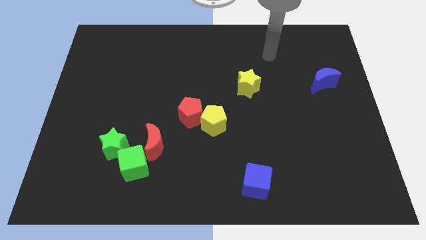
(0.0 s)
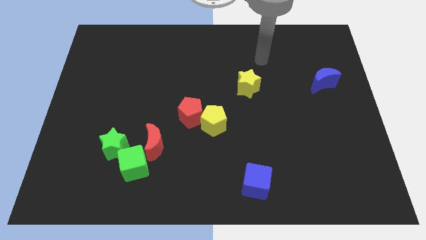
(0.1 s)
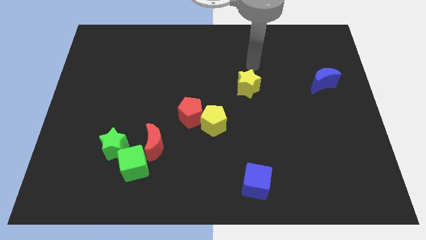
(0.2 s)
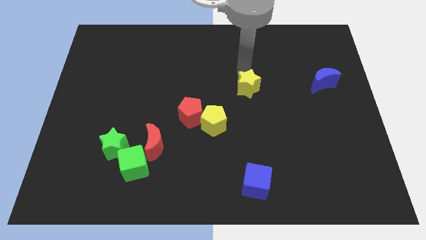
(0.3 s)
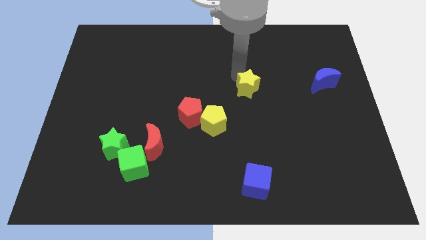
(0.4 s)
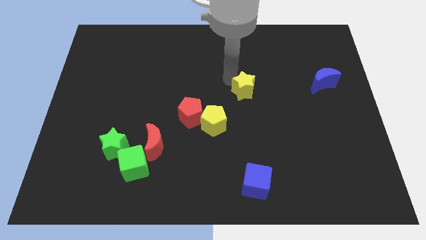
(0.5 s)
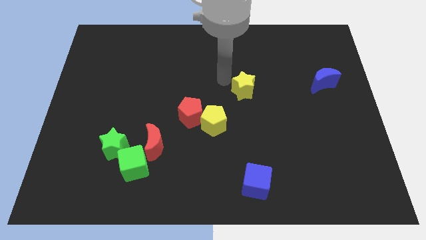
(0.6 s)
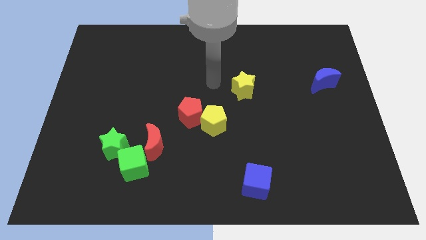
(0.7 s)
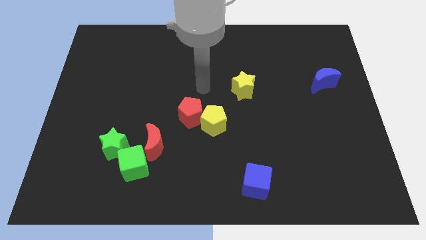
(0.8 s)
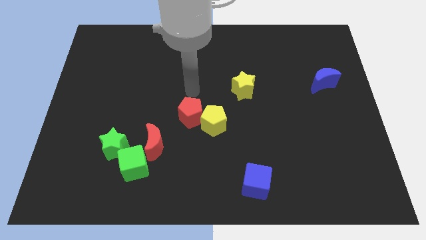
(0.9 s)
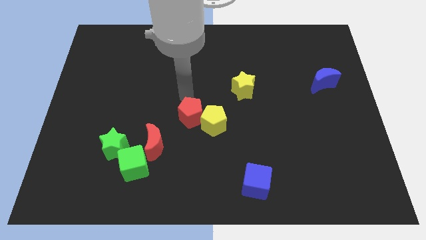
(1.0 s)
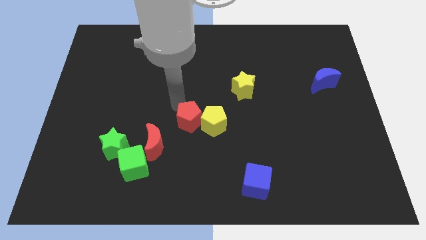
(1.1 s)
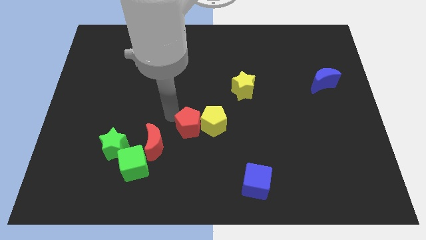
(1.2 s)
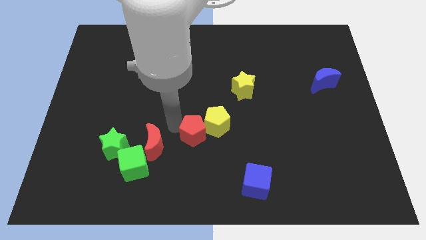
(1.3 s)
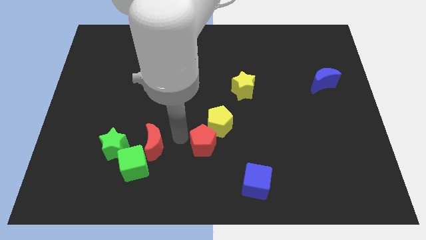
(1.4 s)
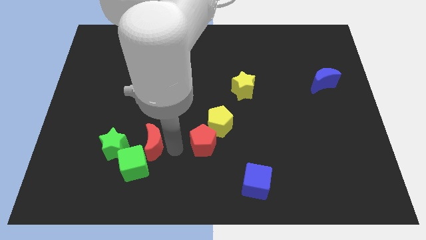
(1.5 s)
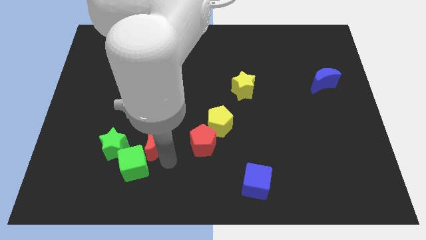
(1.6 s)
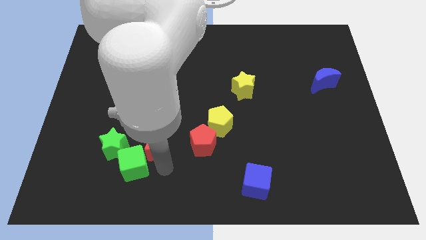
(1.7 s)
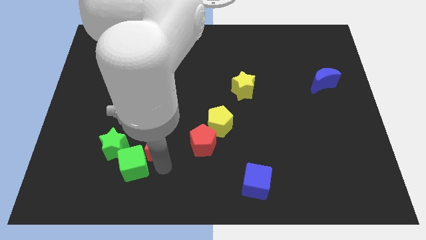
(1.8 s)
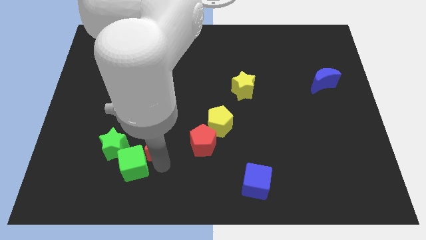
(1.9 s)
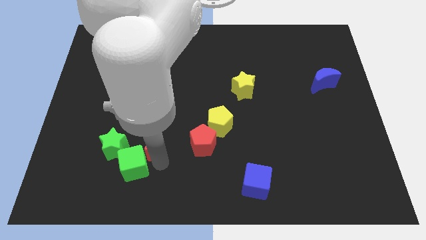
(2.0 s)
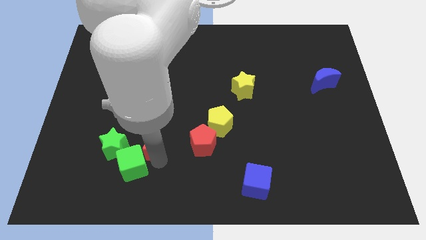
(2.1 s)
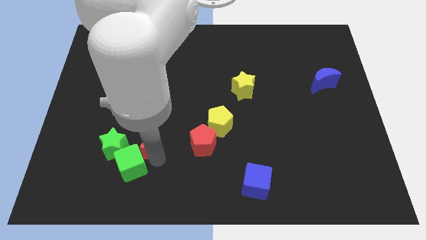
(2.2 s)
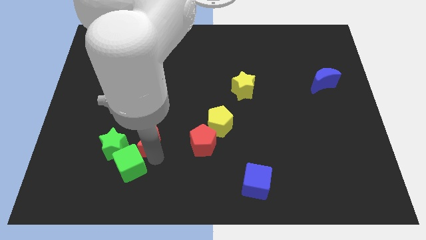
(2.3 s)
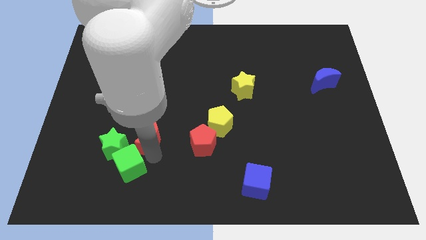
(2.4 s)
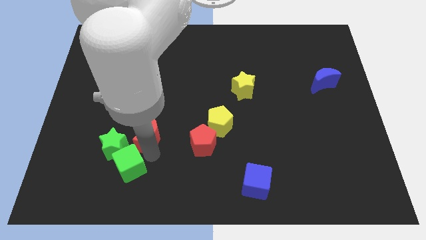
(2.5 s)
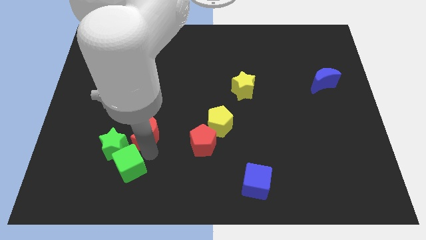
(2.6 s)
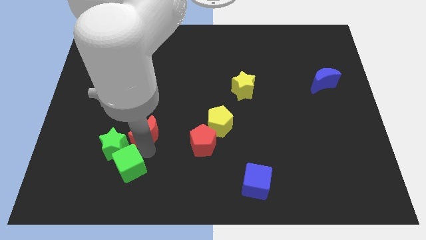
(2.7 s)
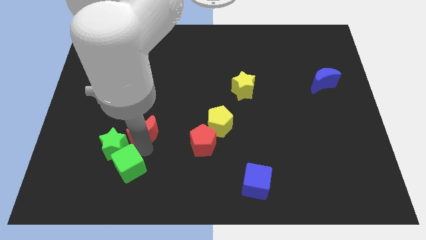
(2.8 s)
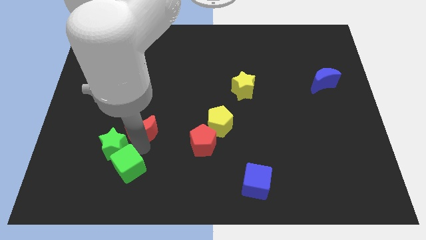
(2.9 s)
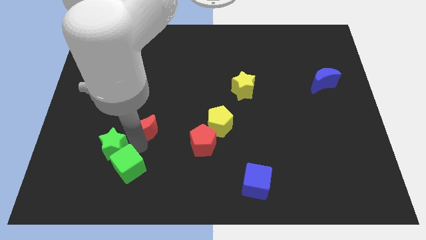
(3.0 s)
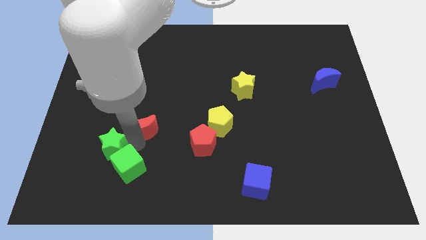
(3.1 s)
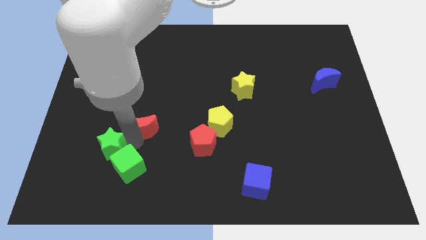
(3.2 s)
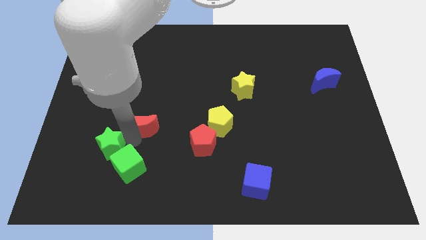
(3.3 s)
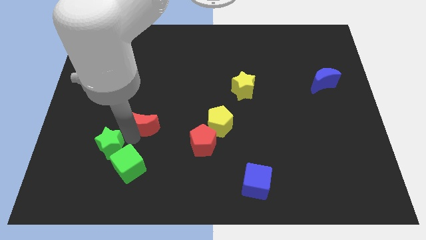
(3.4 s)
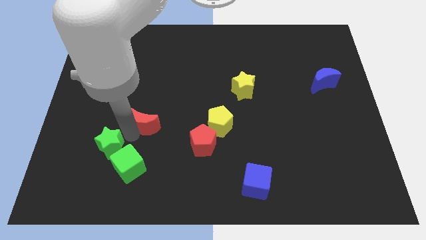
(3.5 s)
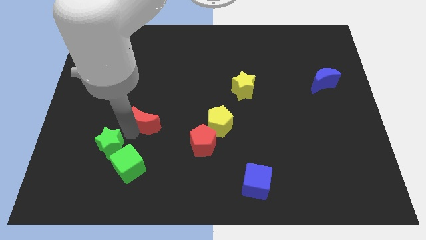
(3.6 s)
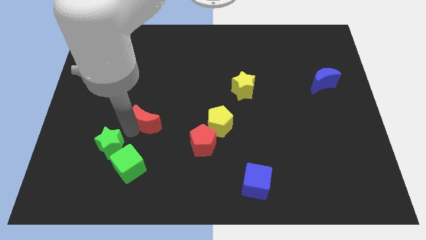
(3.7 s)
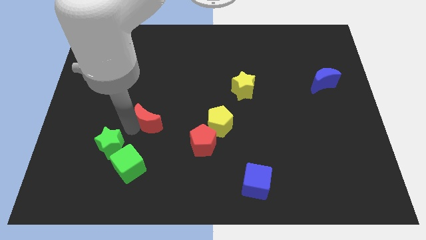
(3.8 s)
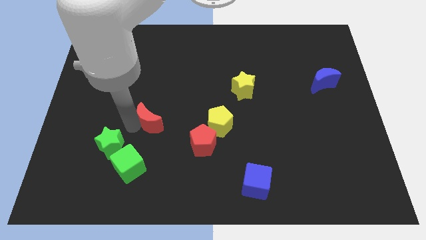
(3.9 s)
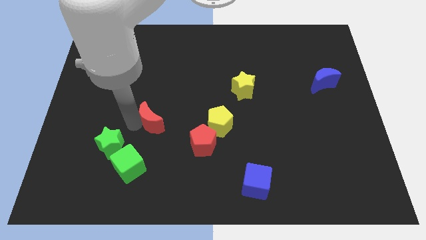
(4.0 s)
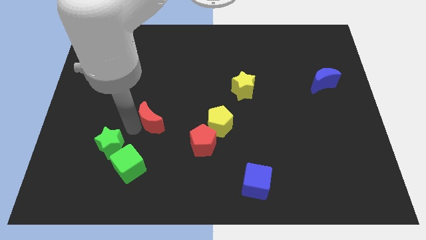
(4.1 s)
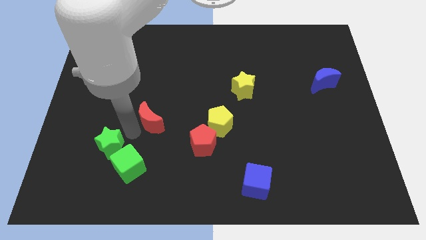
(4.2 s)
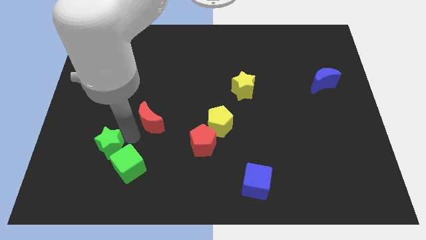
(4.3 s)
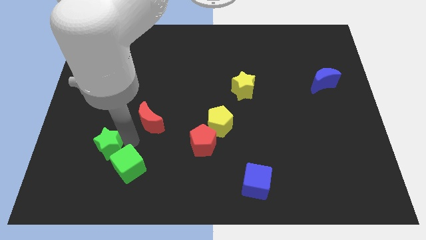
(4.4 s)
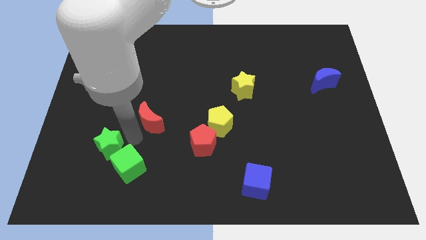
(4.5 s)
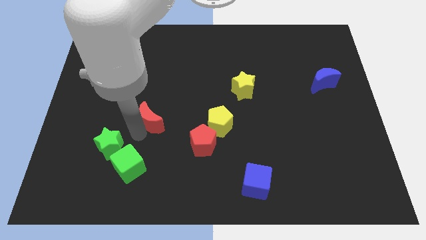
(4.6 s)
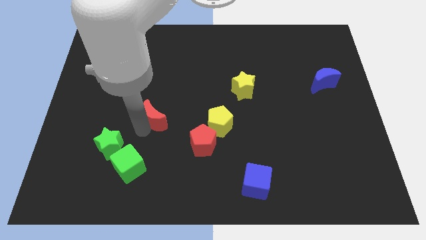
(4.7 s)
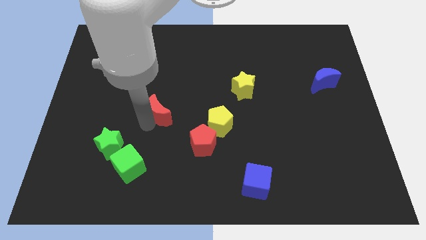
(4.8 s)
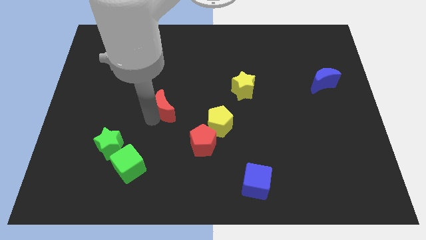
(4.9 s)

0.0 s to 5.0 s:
move the red moon to the center of the board
